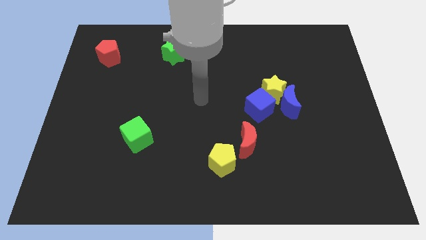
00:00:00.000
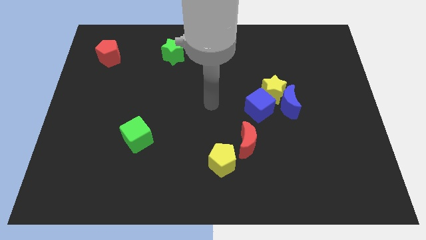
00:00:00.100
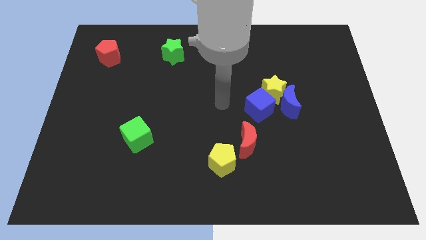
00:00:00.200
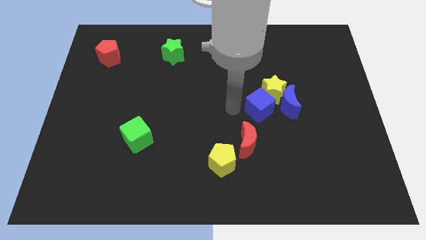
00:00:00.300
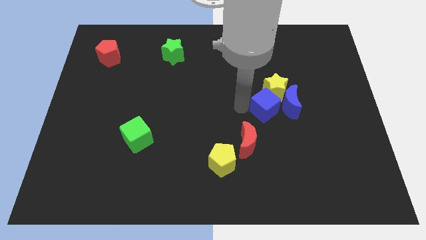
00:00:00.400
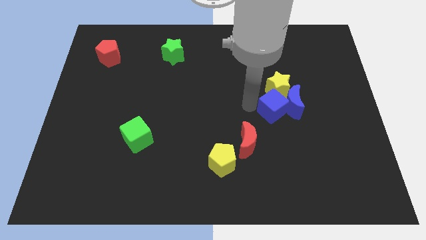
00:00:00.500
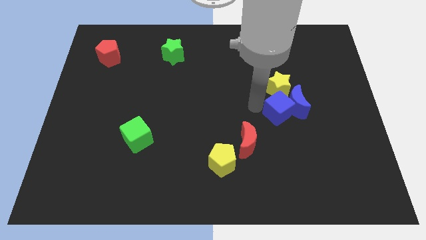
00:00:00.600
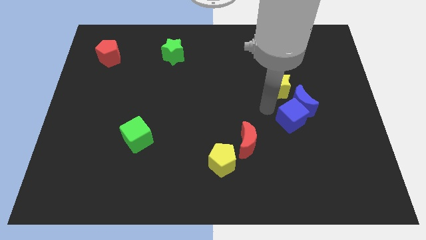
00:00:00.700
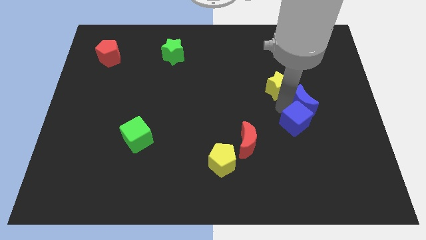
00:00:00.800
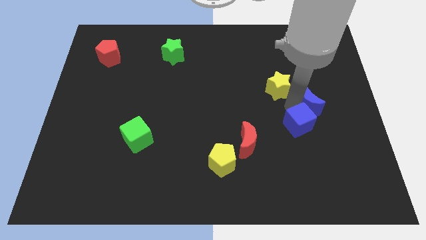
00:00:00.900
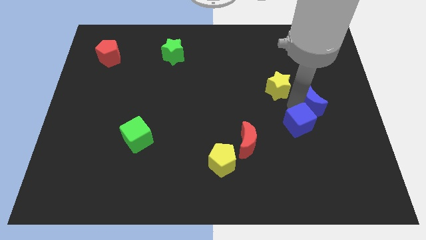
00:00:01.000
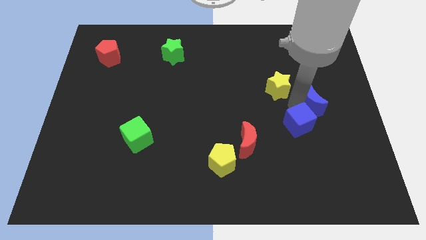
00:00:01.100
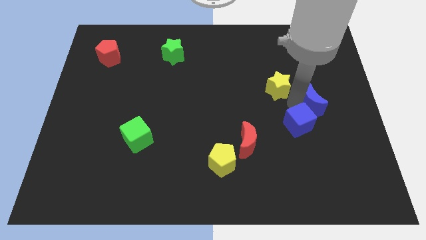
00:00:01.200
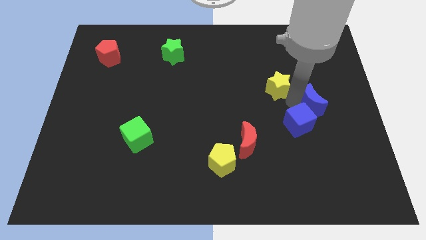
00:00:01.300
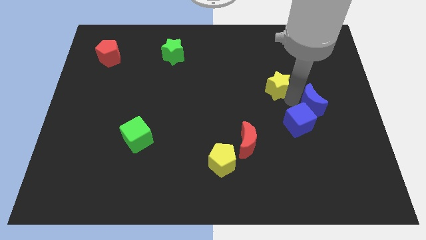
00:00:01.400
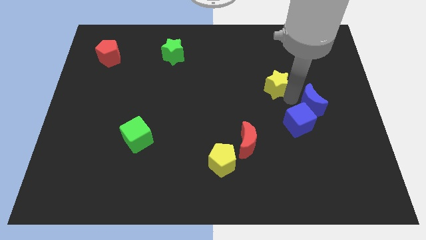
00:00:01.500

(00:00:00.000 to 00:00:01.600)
separate the yellow star from the blue moon and blue cube

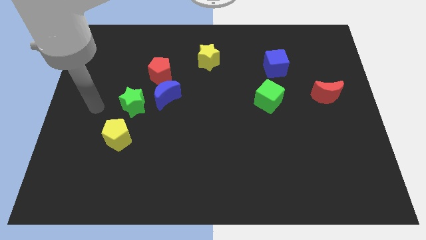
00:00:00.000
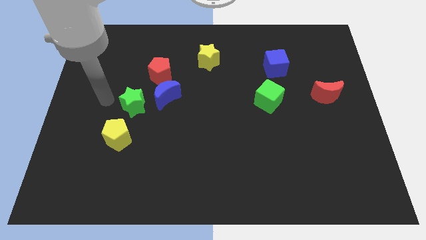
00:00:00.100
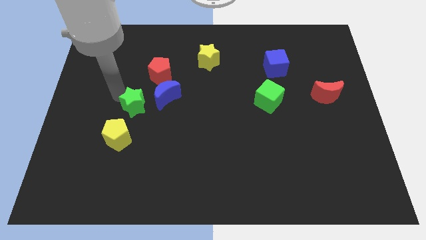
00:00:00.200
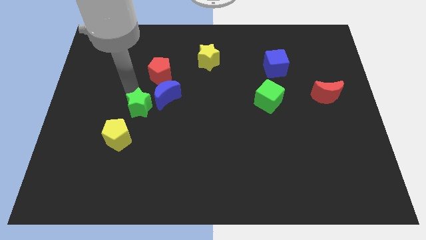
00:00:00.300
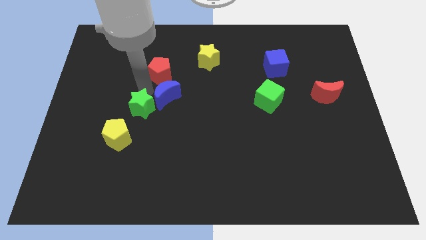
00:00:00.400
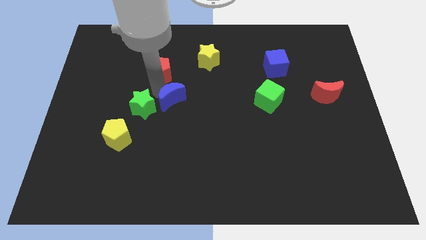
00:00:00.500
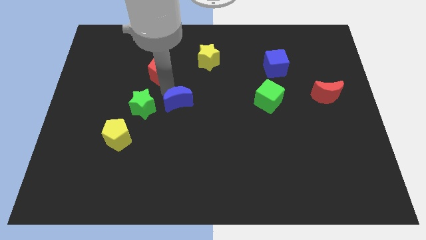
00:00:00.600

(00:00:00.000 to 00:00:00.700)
pull the red pentagon apart from the blue moon

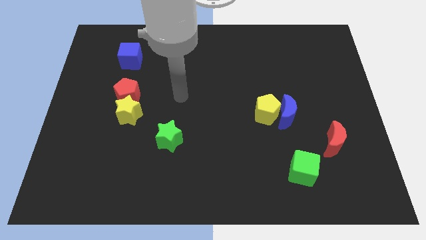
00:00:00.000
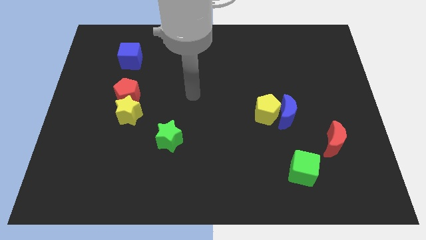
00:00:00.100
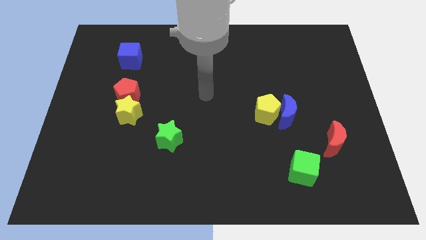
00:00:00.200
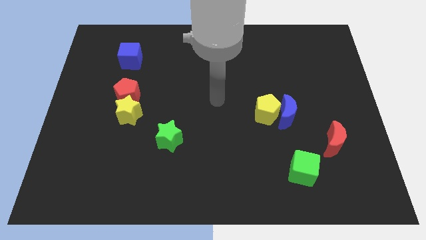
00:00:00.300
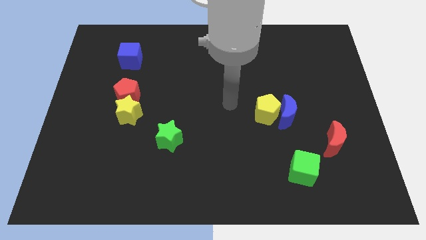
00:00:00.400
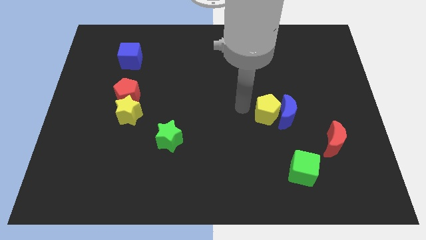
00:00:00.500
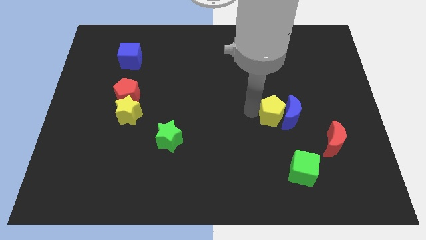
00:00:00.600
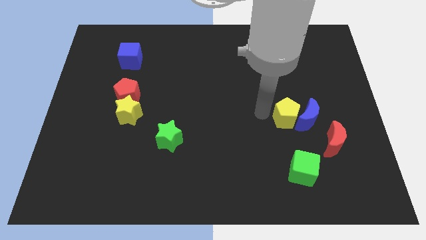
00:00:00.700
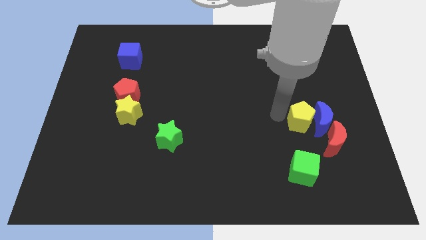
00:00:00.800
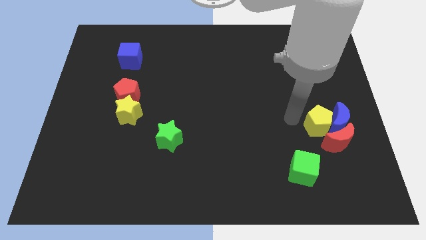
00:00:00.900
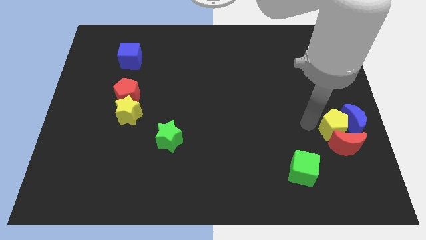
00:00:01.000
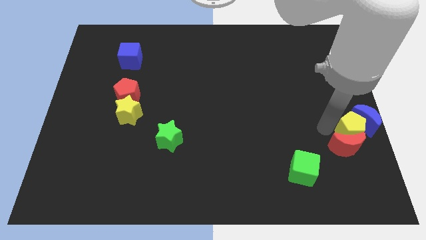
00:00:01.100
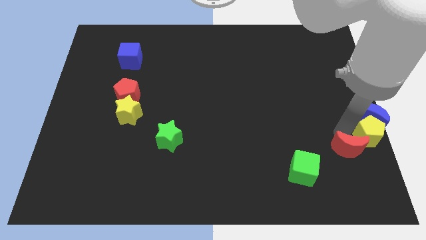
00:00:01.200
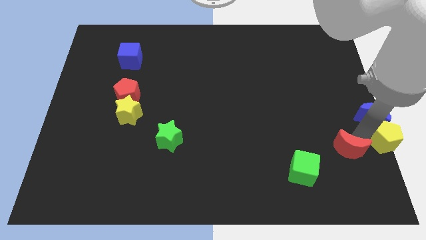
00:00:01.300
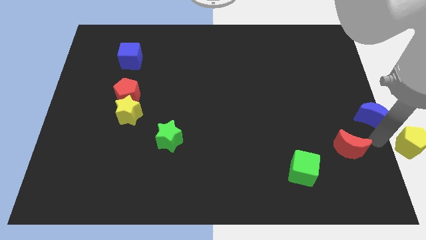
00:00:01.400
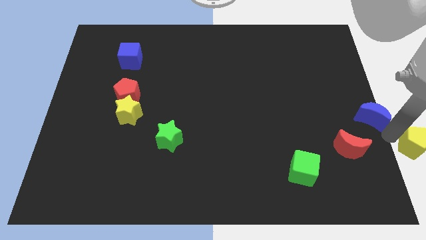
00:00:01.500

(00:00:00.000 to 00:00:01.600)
separate the blue moon from the yellow pentagon

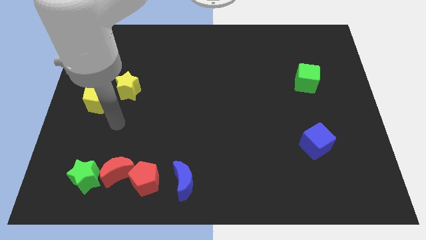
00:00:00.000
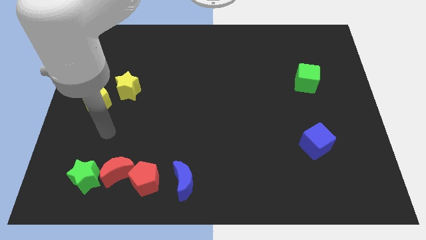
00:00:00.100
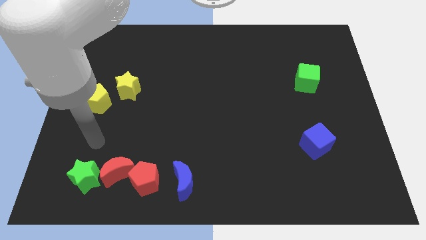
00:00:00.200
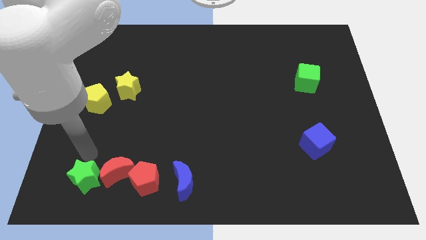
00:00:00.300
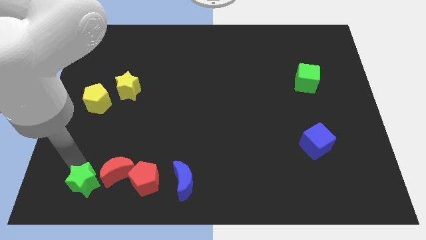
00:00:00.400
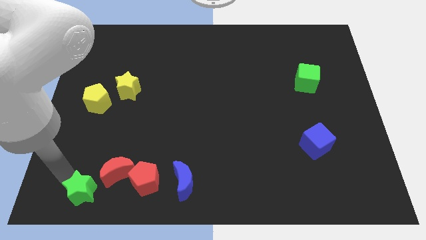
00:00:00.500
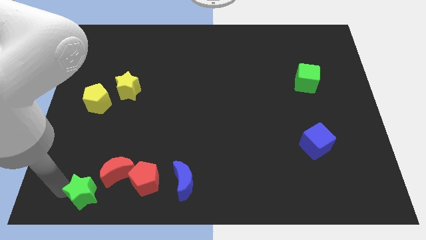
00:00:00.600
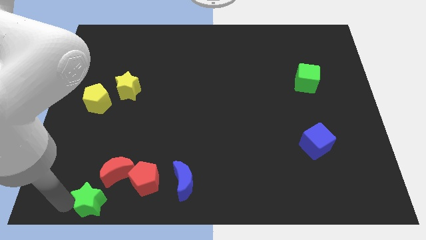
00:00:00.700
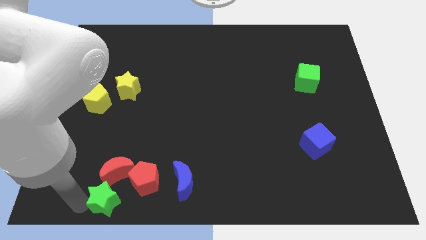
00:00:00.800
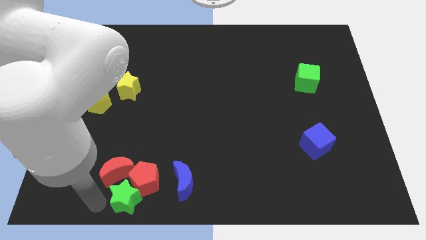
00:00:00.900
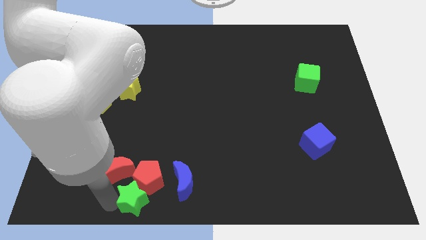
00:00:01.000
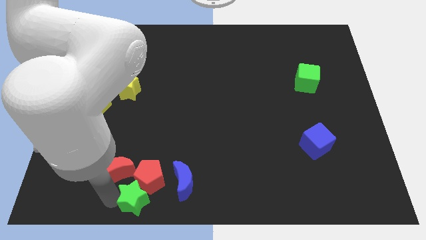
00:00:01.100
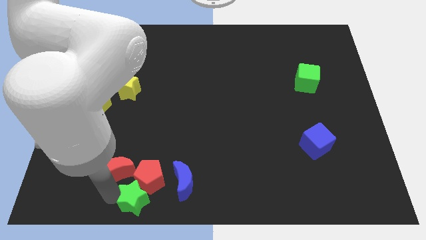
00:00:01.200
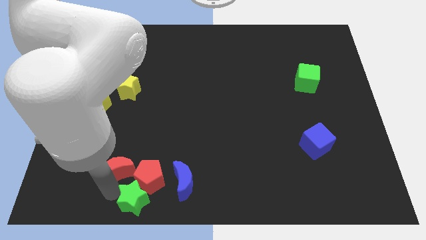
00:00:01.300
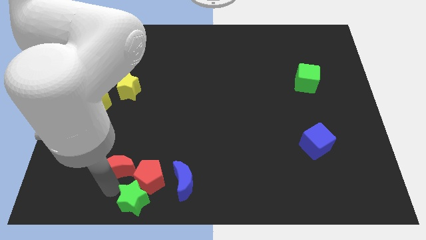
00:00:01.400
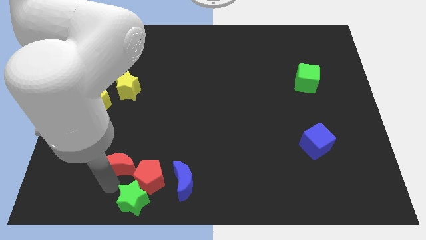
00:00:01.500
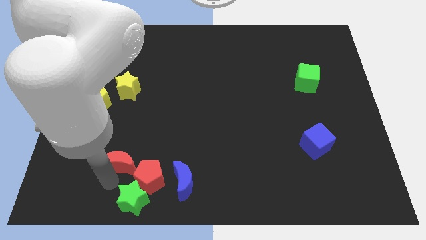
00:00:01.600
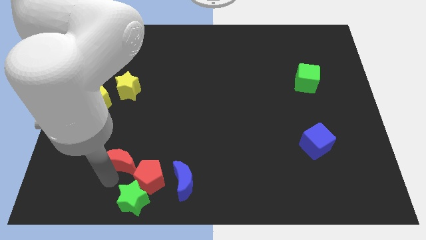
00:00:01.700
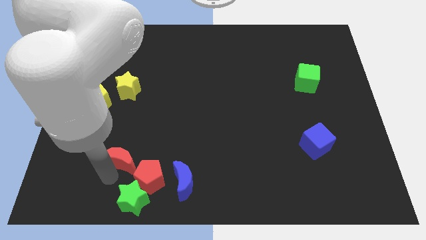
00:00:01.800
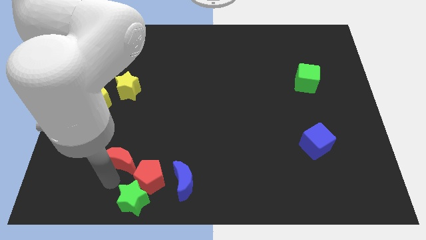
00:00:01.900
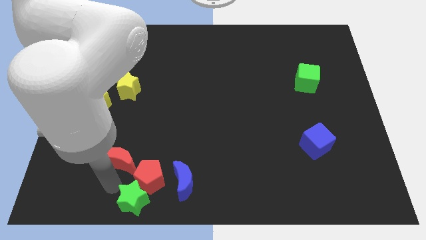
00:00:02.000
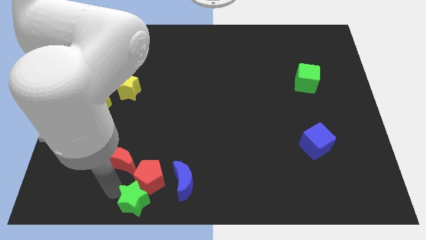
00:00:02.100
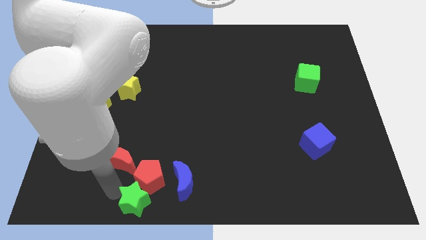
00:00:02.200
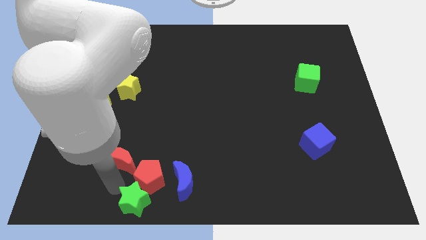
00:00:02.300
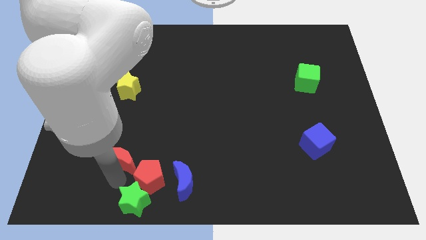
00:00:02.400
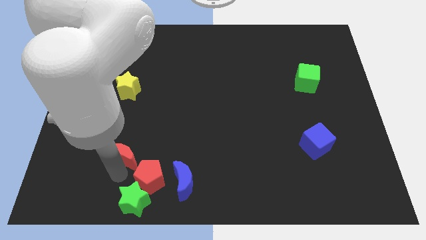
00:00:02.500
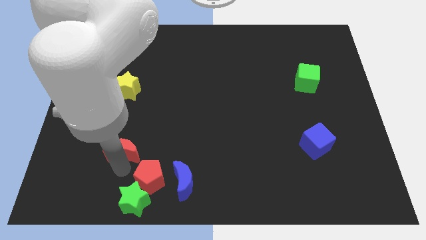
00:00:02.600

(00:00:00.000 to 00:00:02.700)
separate the red moon from the red pentagon and green star

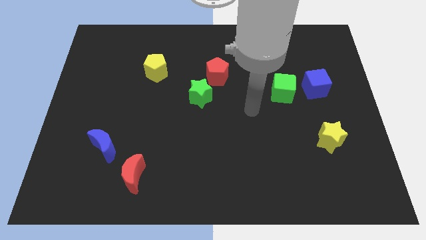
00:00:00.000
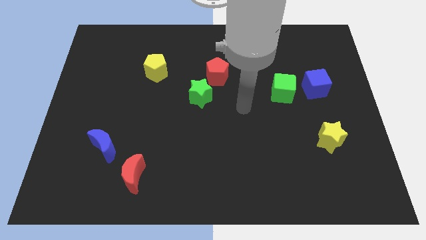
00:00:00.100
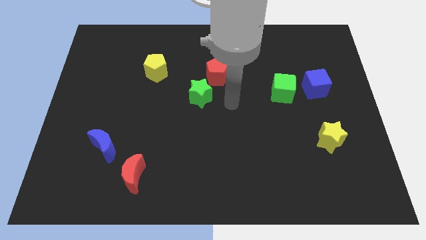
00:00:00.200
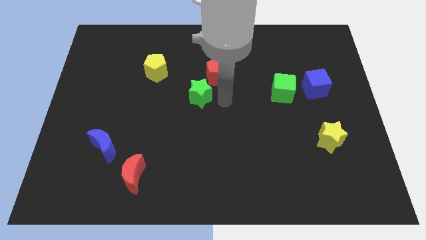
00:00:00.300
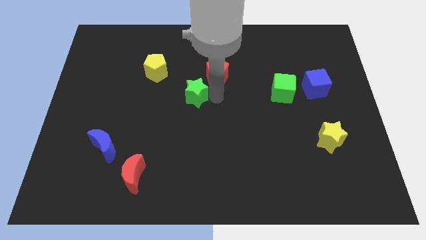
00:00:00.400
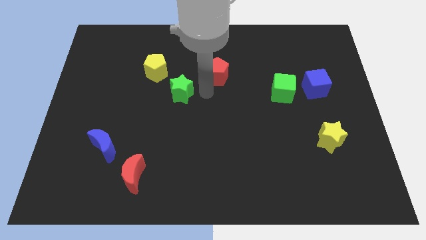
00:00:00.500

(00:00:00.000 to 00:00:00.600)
pull the red pentagon apart from the green star

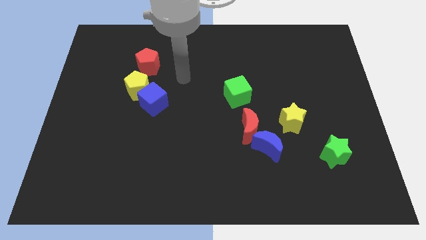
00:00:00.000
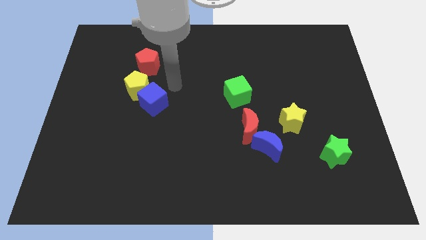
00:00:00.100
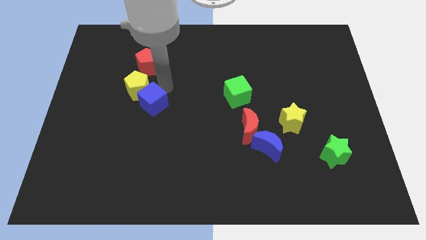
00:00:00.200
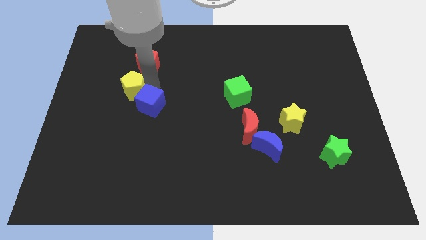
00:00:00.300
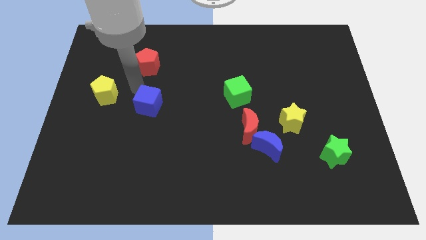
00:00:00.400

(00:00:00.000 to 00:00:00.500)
move the blue cube away from the yellow pentagon

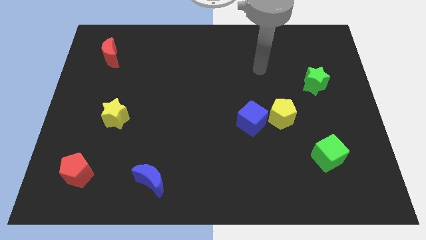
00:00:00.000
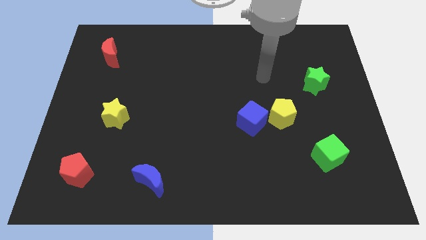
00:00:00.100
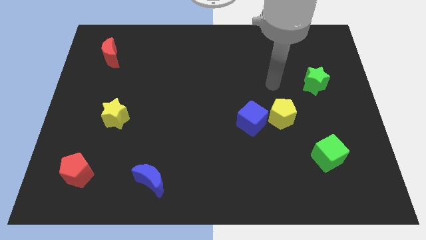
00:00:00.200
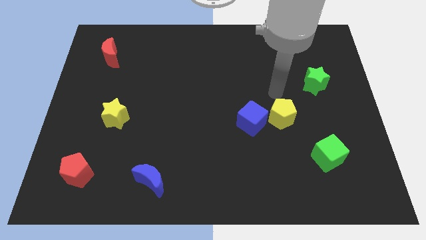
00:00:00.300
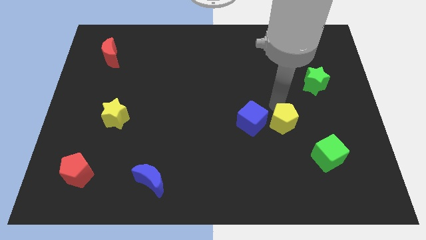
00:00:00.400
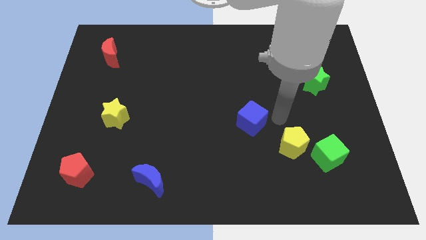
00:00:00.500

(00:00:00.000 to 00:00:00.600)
pull the blue cube apart from the yellow pentagon

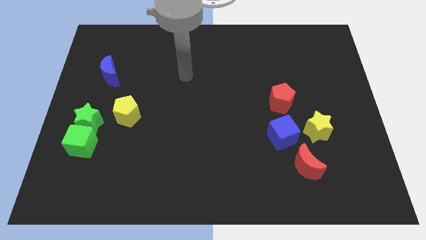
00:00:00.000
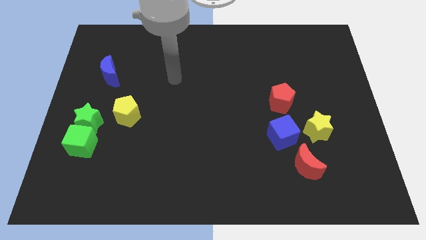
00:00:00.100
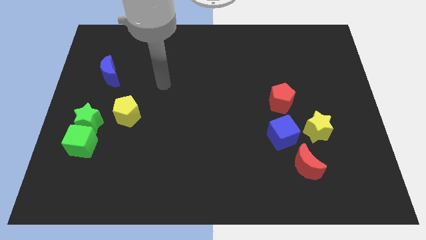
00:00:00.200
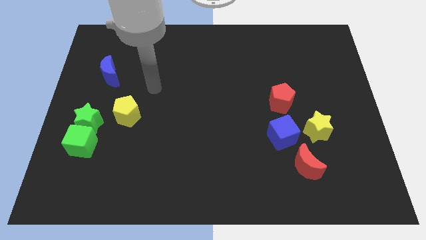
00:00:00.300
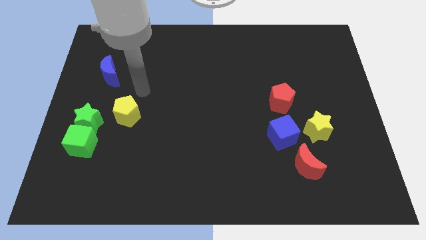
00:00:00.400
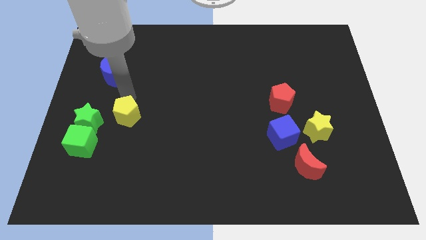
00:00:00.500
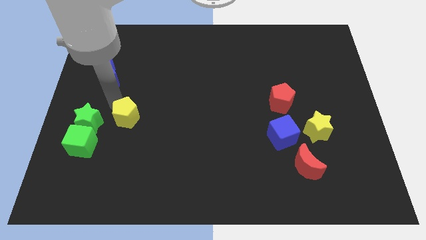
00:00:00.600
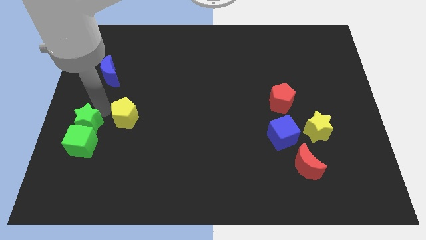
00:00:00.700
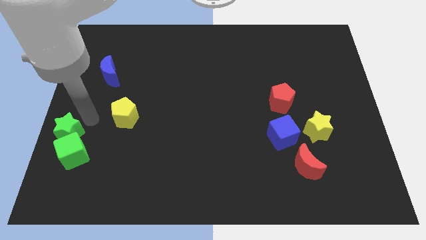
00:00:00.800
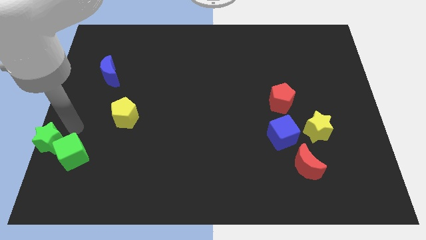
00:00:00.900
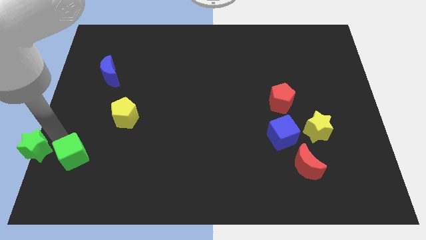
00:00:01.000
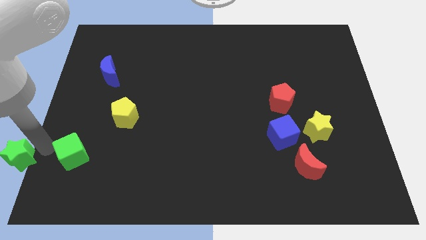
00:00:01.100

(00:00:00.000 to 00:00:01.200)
separate the green cube from the green star
